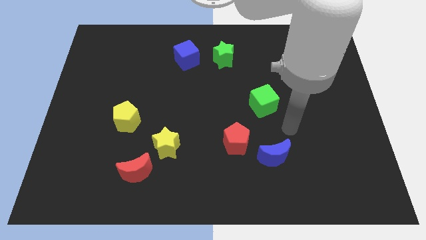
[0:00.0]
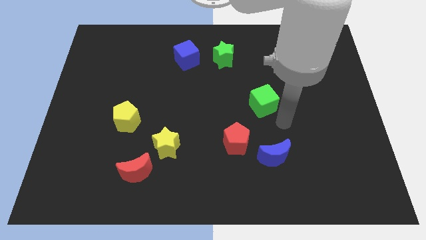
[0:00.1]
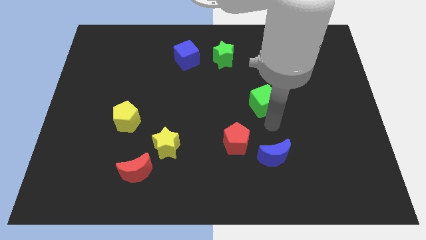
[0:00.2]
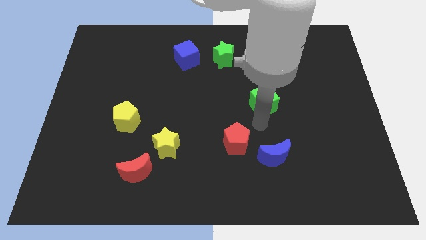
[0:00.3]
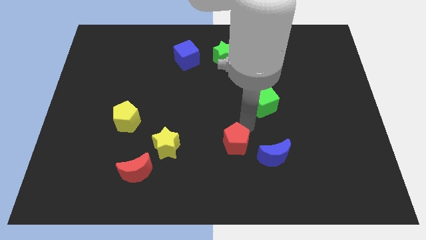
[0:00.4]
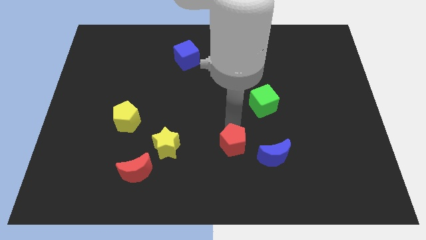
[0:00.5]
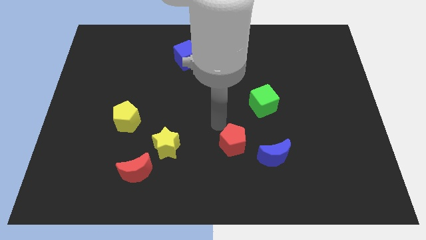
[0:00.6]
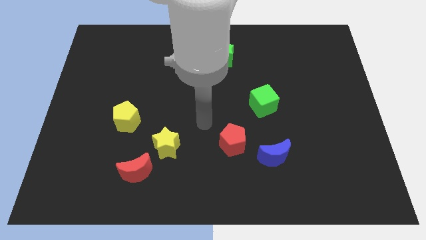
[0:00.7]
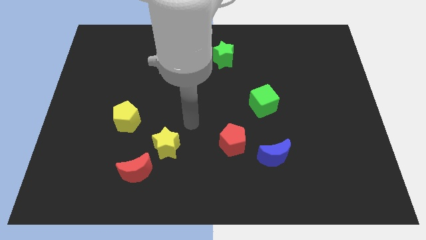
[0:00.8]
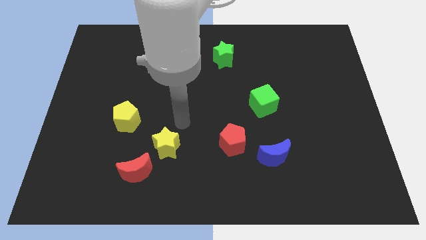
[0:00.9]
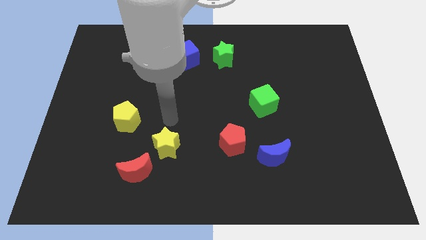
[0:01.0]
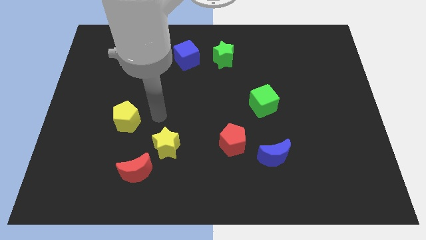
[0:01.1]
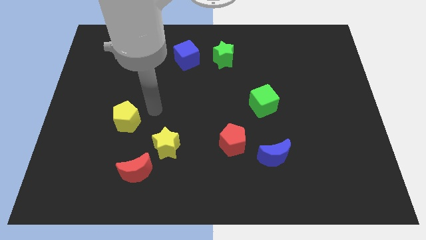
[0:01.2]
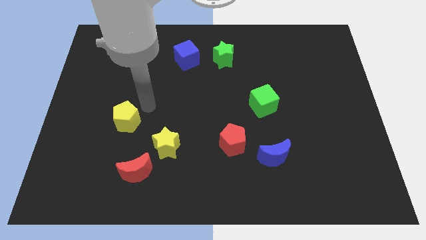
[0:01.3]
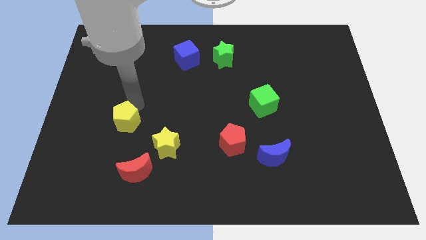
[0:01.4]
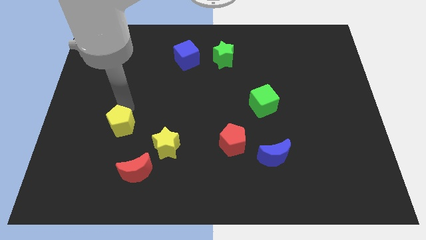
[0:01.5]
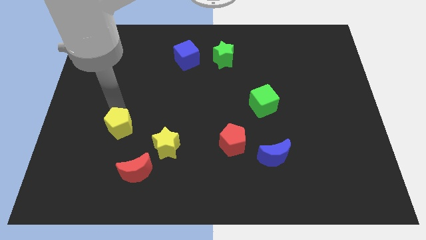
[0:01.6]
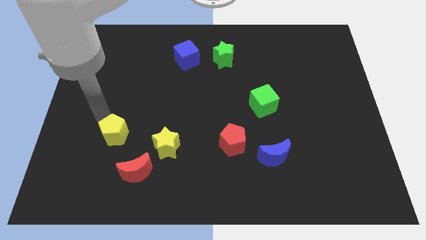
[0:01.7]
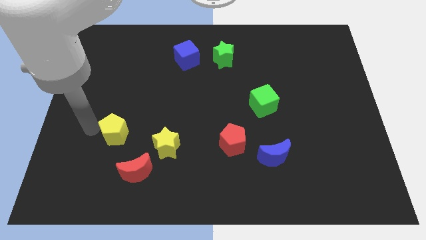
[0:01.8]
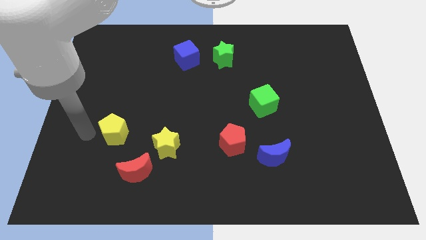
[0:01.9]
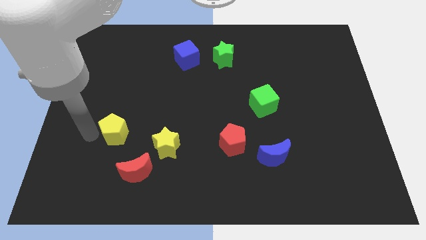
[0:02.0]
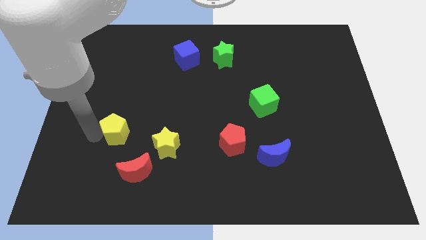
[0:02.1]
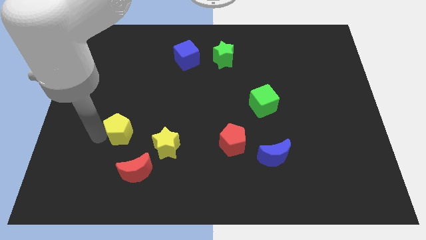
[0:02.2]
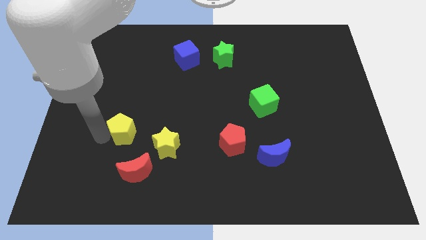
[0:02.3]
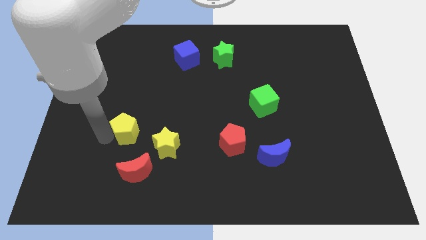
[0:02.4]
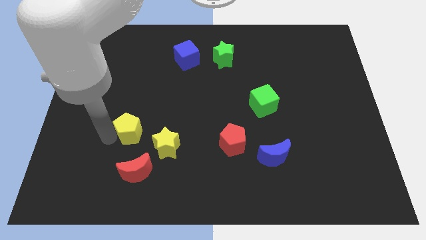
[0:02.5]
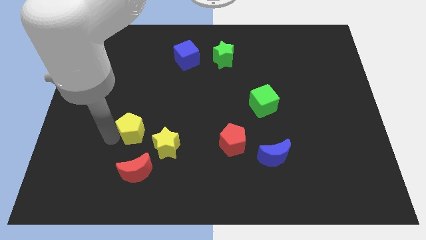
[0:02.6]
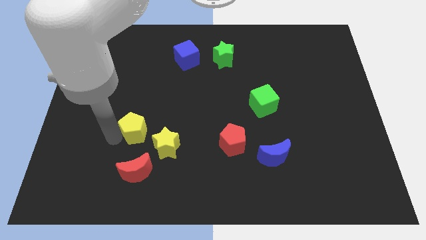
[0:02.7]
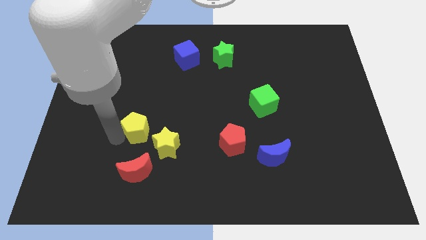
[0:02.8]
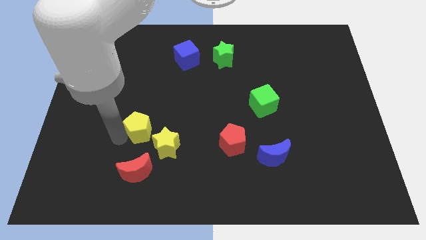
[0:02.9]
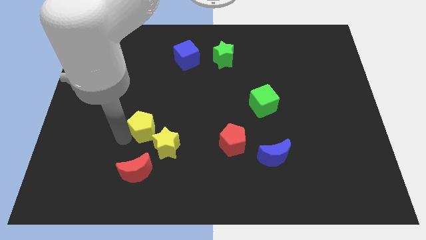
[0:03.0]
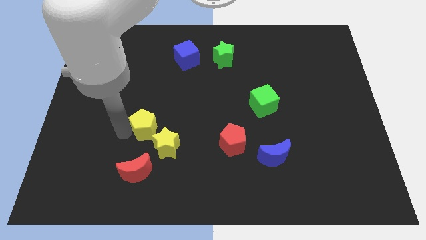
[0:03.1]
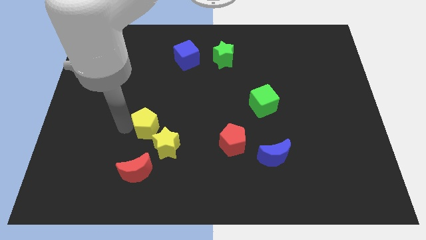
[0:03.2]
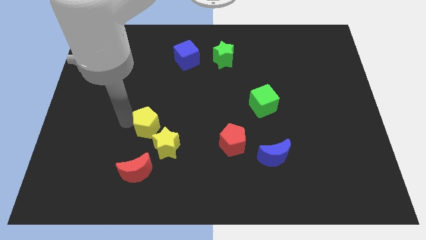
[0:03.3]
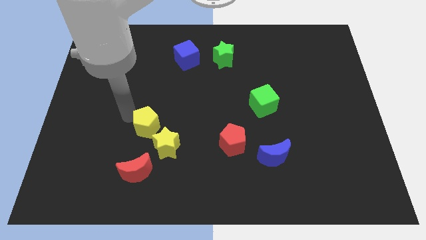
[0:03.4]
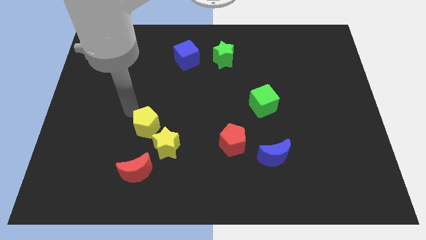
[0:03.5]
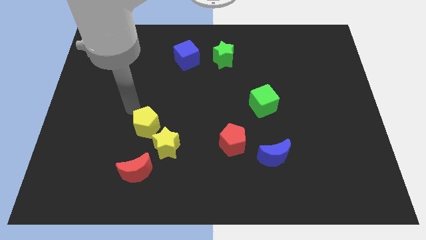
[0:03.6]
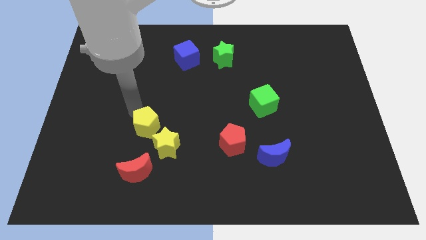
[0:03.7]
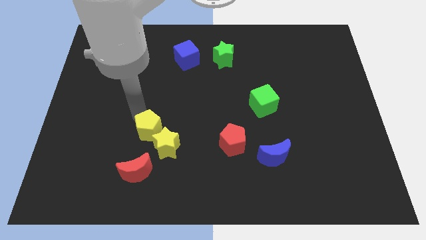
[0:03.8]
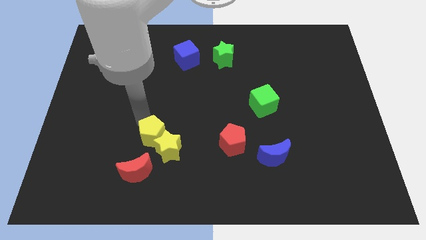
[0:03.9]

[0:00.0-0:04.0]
put the yellow pentagon towards the yellow star

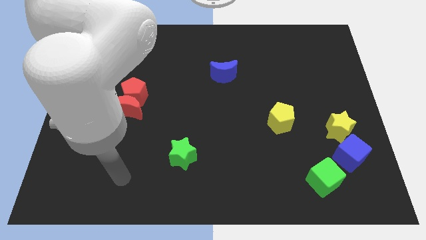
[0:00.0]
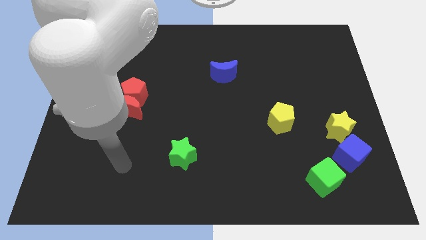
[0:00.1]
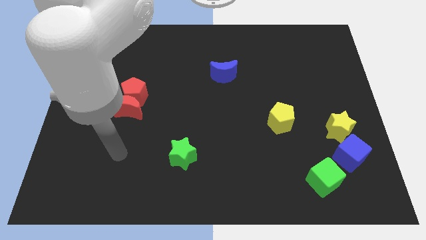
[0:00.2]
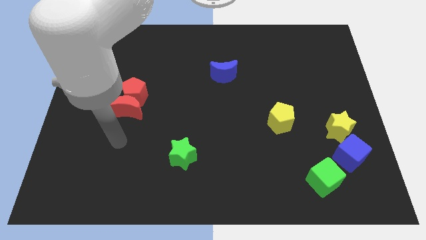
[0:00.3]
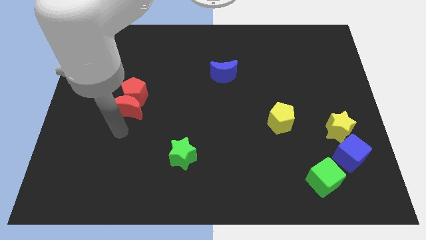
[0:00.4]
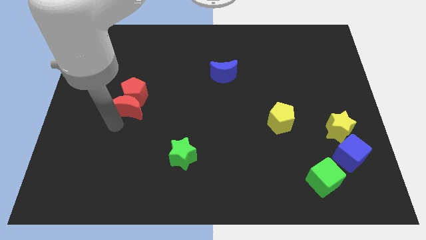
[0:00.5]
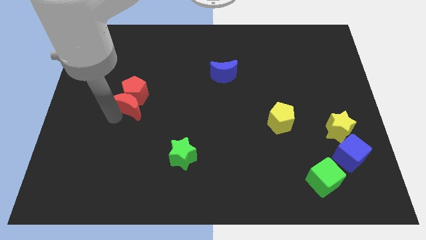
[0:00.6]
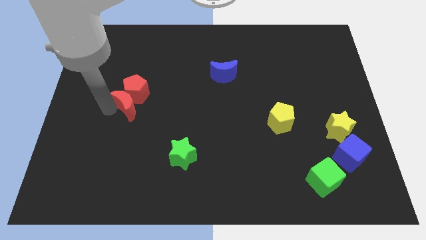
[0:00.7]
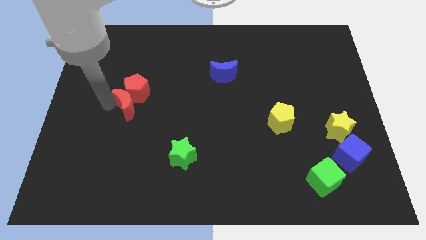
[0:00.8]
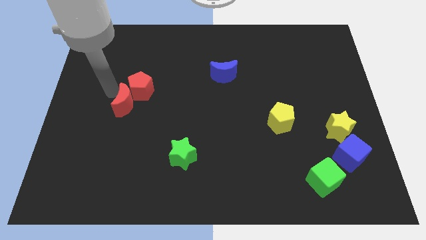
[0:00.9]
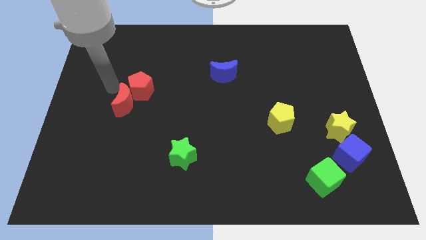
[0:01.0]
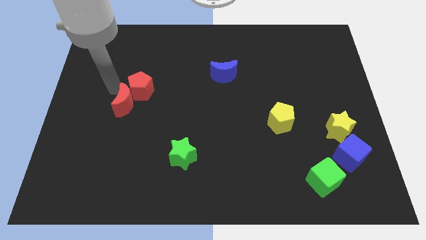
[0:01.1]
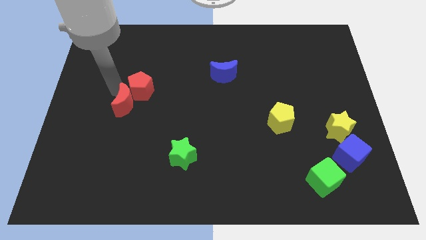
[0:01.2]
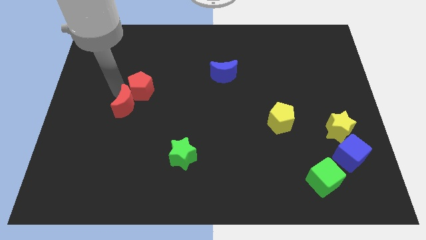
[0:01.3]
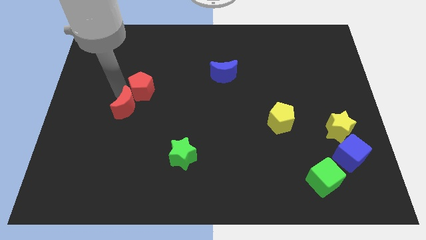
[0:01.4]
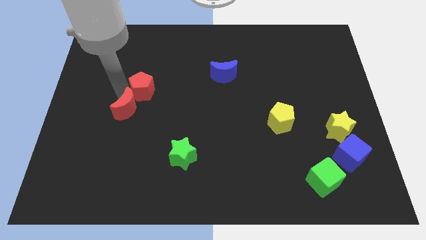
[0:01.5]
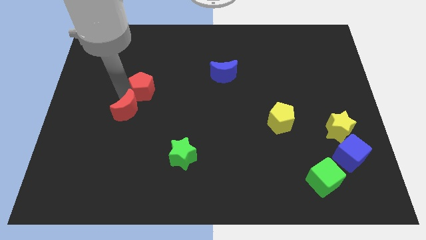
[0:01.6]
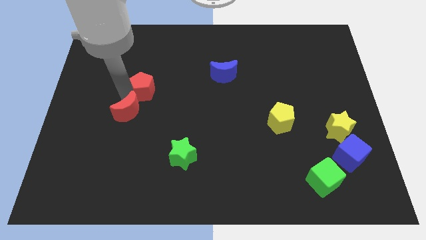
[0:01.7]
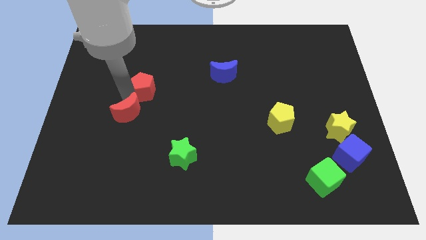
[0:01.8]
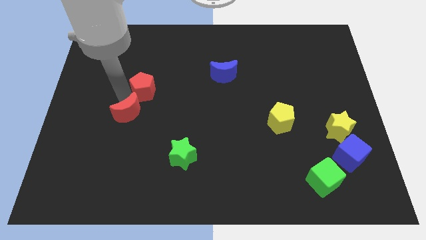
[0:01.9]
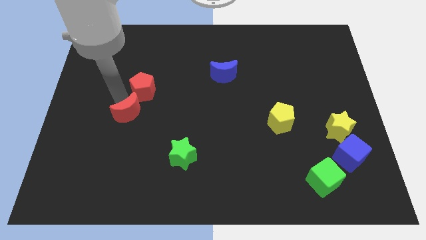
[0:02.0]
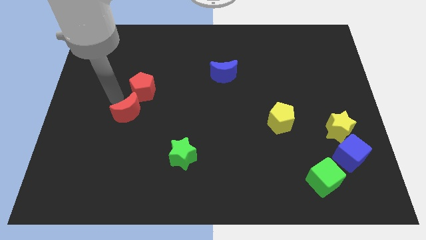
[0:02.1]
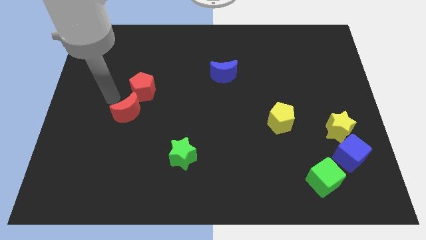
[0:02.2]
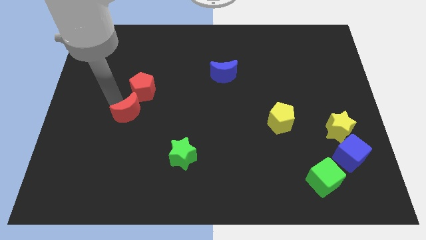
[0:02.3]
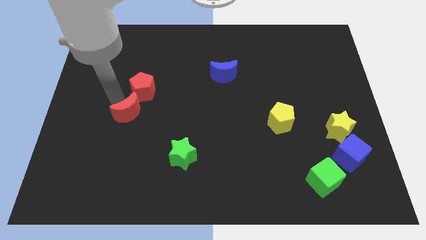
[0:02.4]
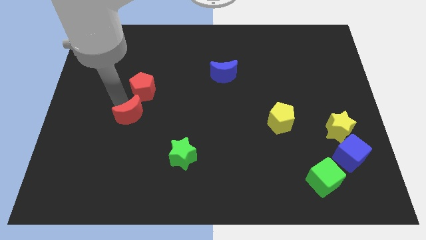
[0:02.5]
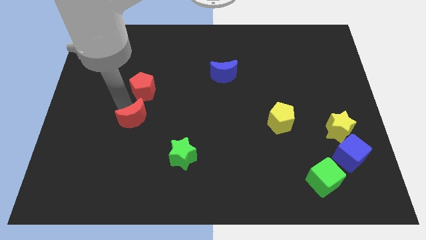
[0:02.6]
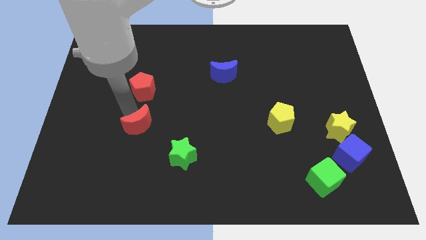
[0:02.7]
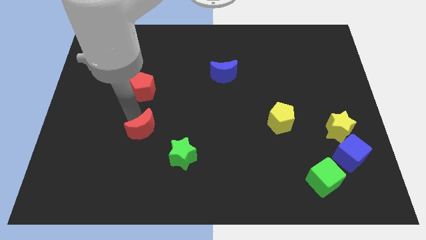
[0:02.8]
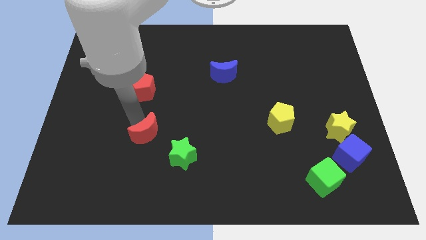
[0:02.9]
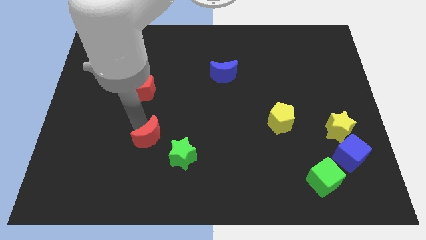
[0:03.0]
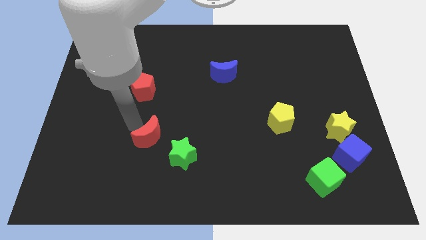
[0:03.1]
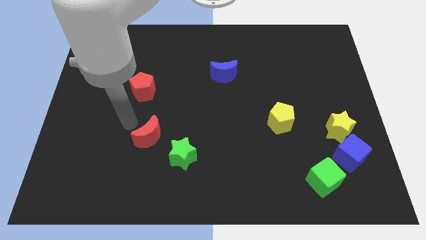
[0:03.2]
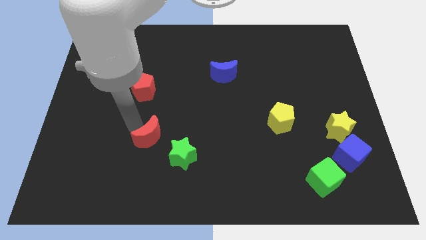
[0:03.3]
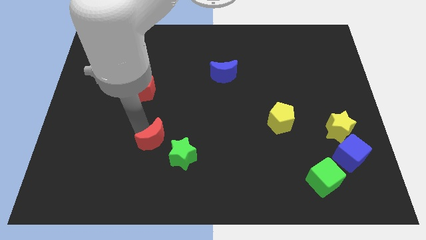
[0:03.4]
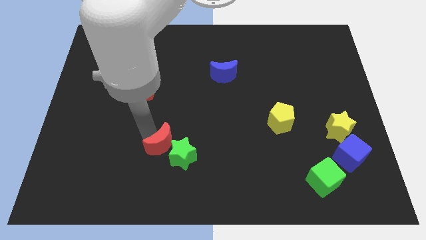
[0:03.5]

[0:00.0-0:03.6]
push the red moon to the green star
